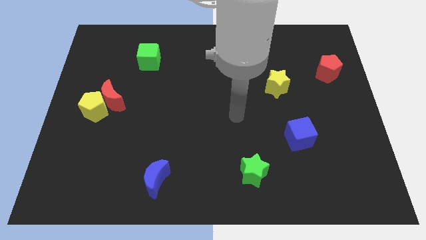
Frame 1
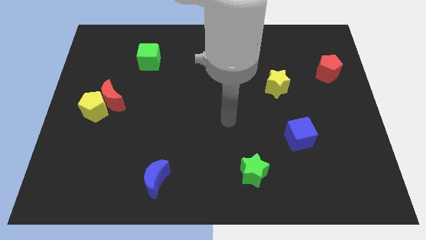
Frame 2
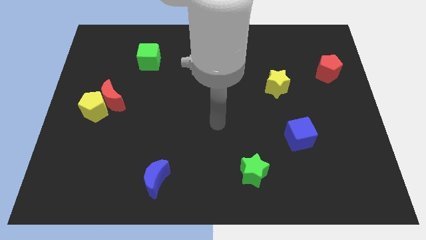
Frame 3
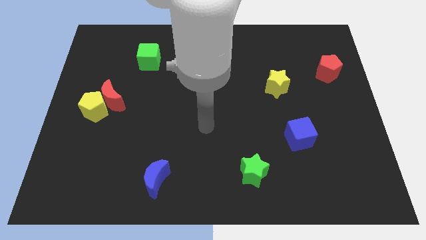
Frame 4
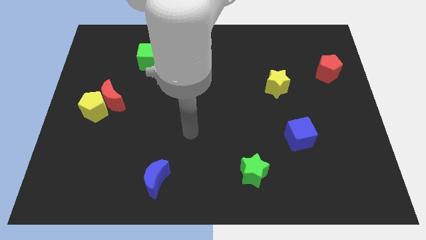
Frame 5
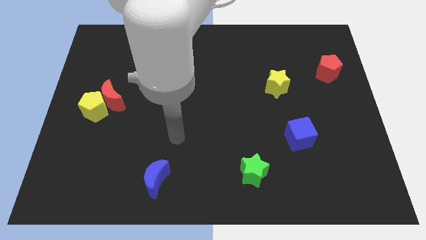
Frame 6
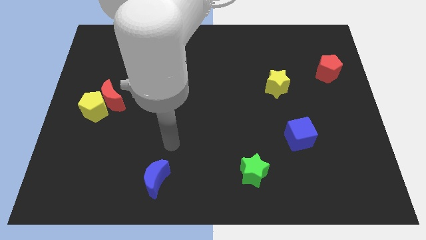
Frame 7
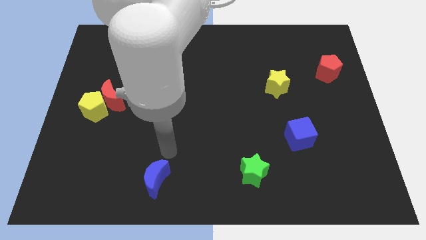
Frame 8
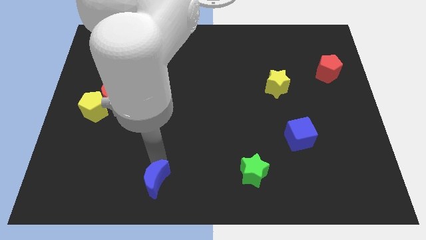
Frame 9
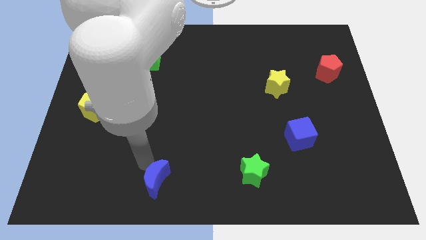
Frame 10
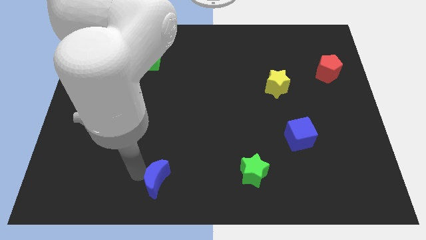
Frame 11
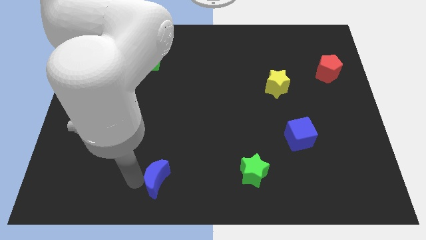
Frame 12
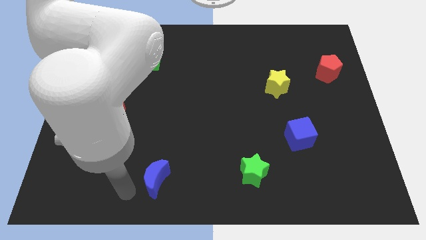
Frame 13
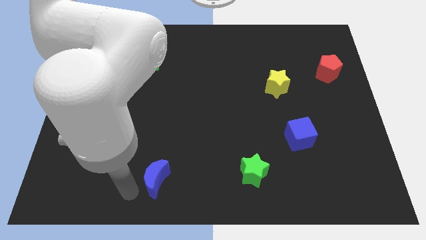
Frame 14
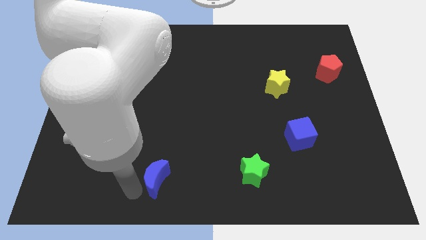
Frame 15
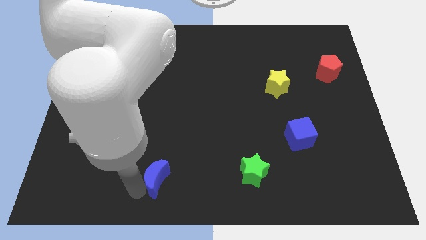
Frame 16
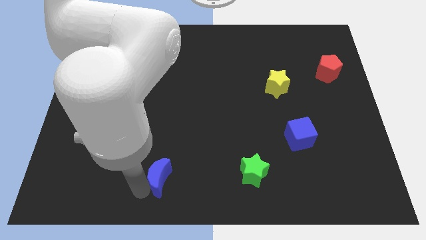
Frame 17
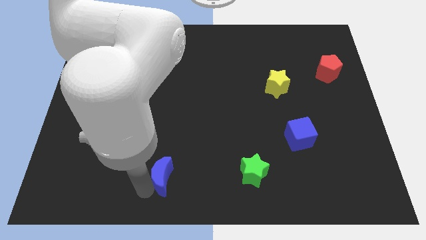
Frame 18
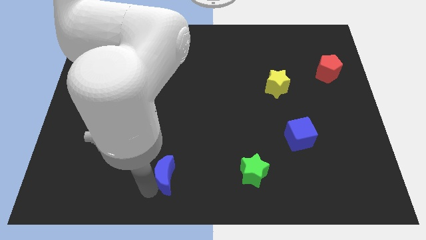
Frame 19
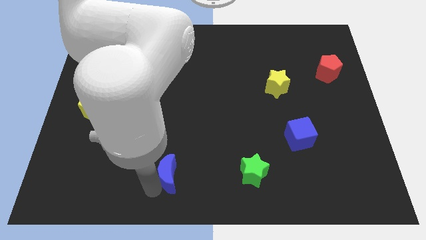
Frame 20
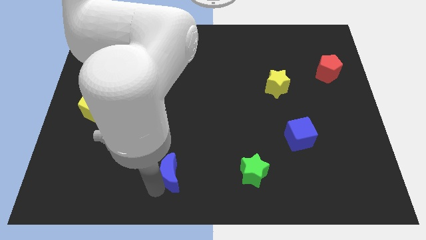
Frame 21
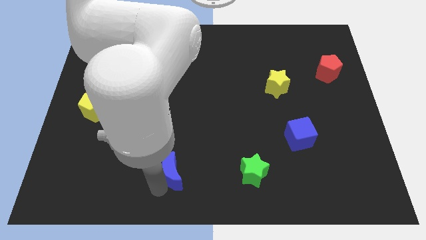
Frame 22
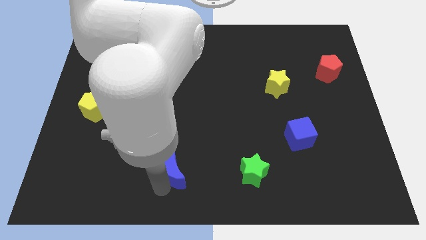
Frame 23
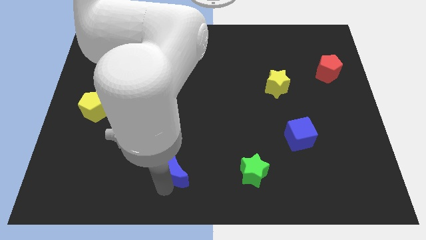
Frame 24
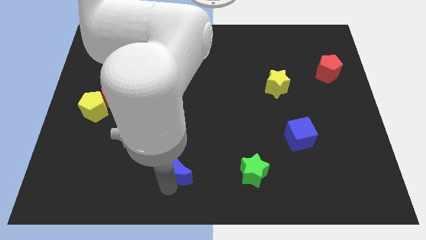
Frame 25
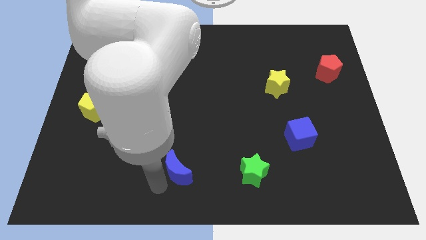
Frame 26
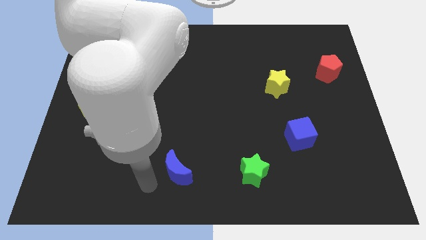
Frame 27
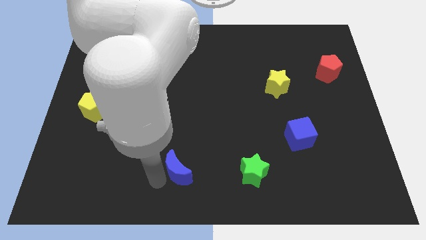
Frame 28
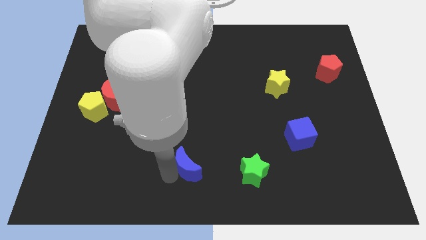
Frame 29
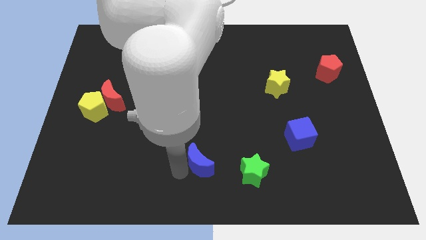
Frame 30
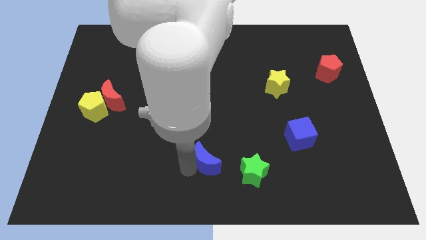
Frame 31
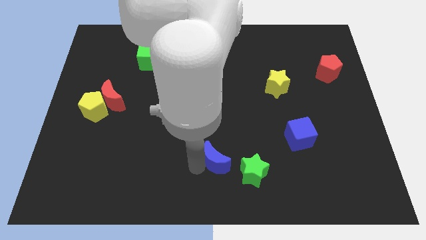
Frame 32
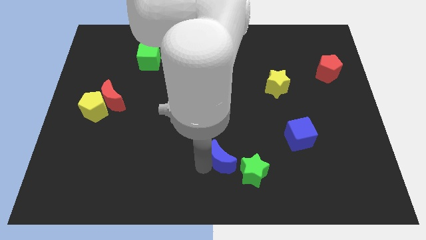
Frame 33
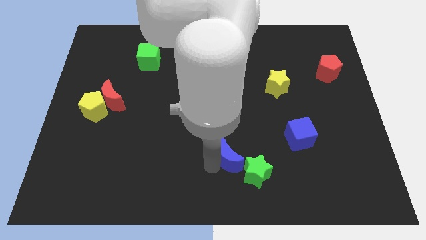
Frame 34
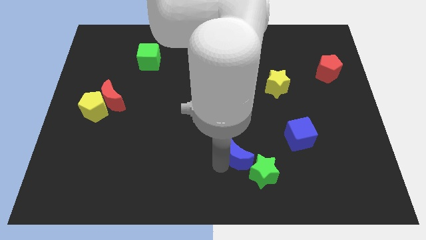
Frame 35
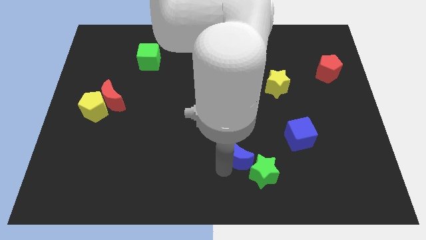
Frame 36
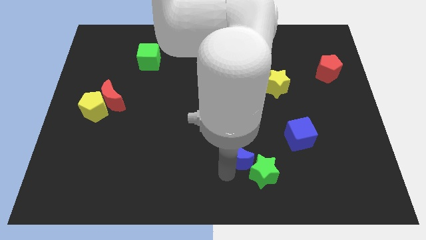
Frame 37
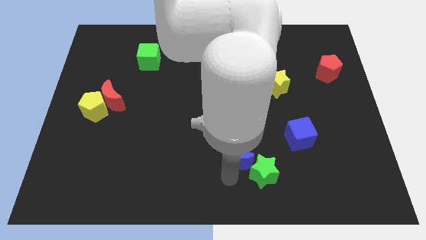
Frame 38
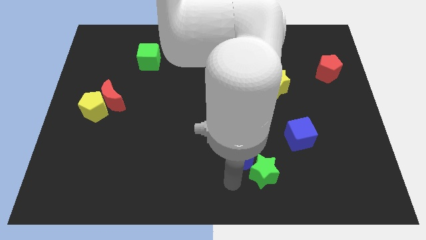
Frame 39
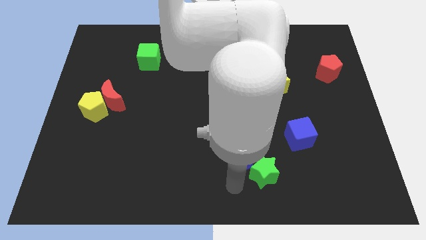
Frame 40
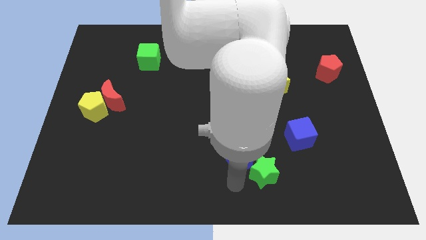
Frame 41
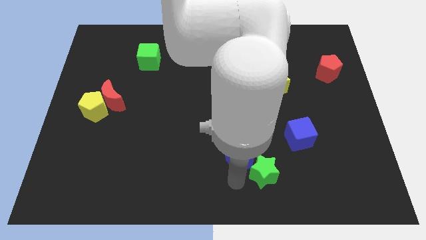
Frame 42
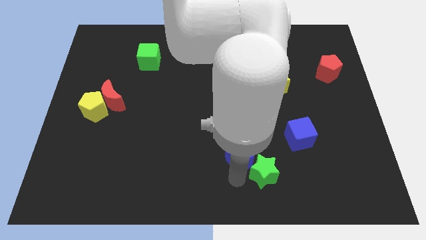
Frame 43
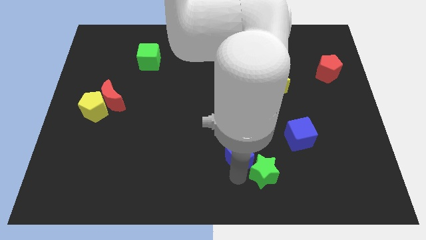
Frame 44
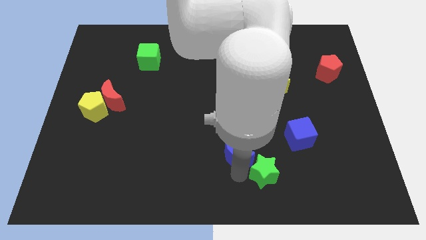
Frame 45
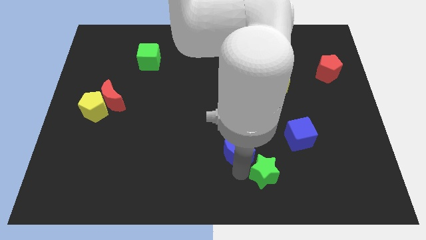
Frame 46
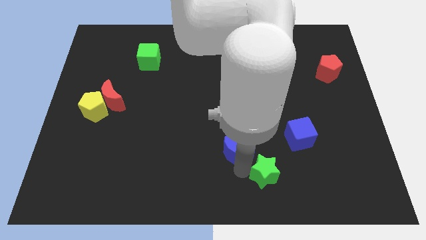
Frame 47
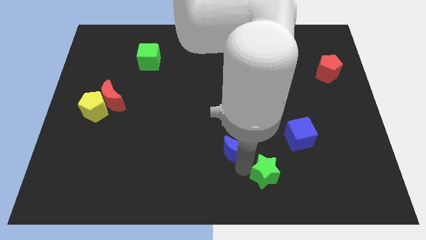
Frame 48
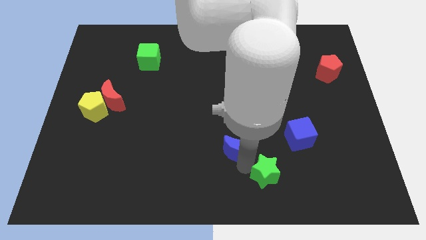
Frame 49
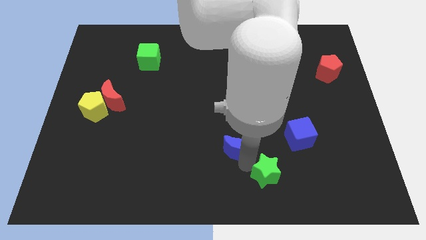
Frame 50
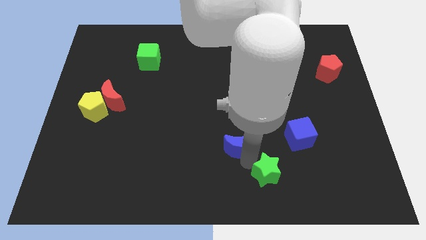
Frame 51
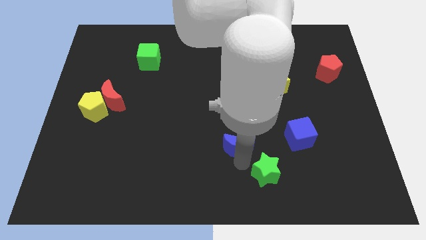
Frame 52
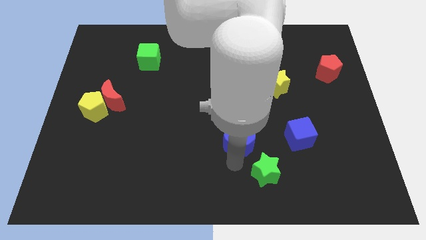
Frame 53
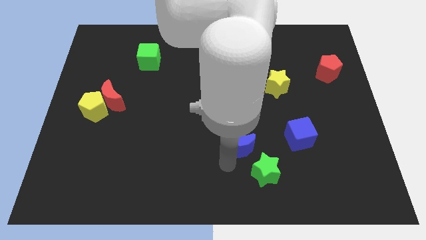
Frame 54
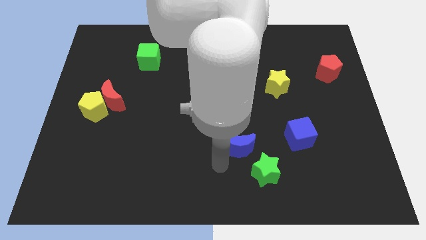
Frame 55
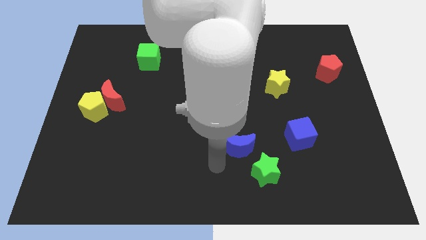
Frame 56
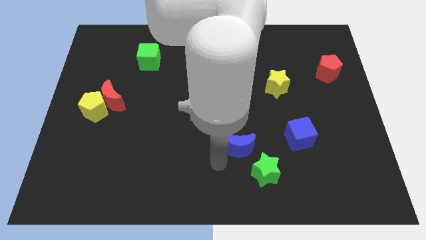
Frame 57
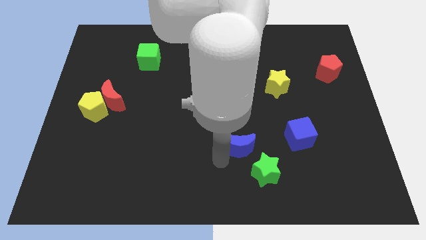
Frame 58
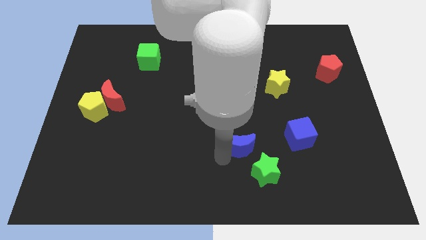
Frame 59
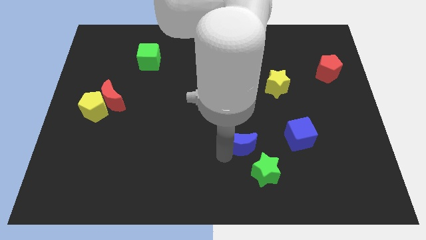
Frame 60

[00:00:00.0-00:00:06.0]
move the blue moon to the top of the green star

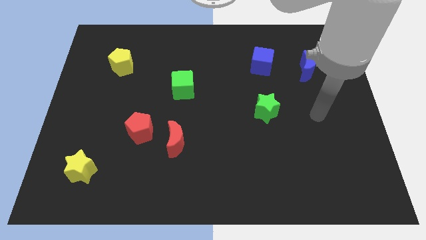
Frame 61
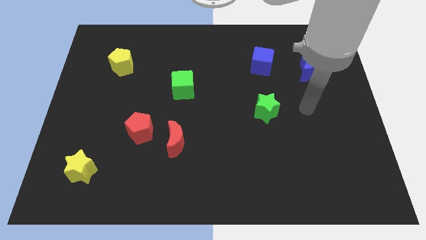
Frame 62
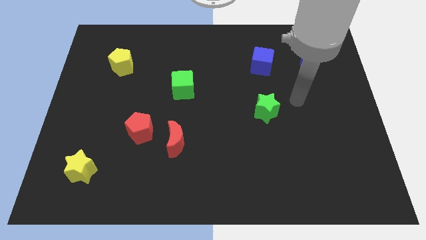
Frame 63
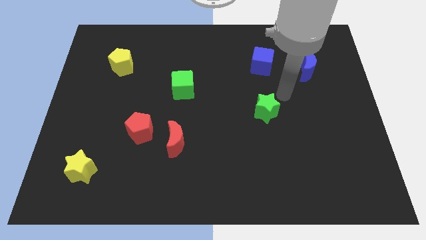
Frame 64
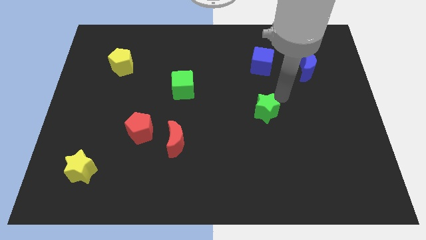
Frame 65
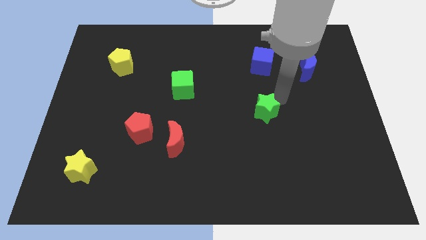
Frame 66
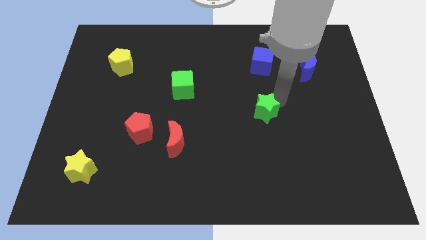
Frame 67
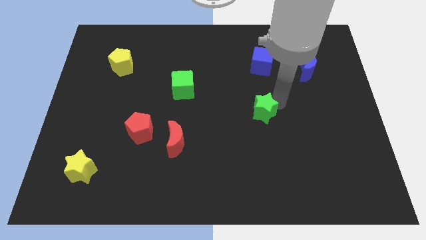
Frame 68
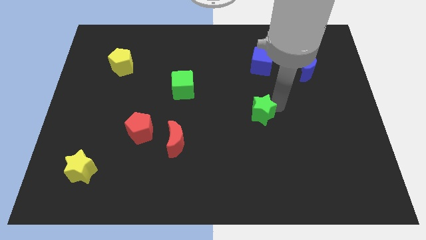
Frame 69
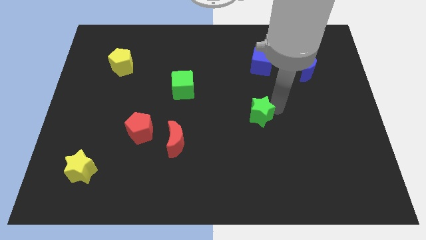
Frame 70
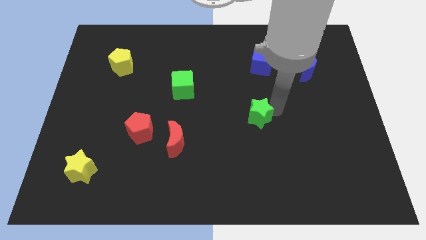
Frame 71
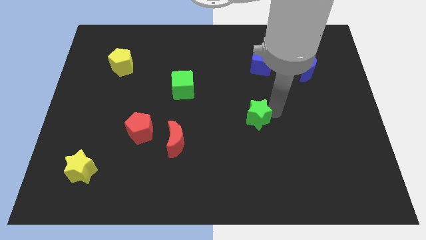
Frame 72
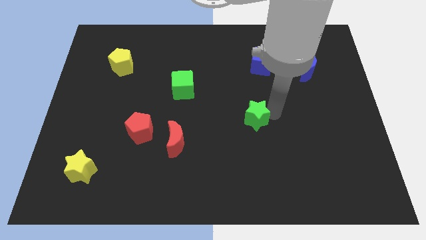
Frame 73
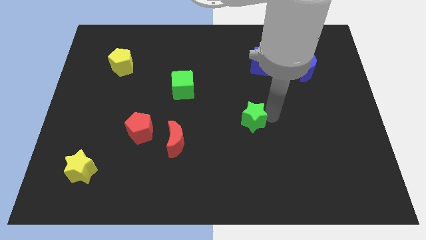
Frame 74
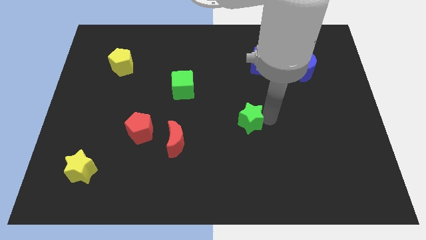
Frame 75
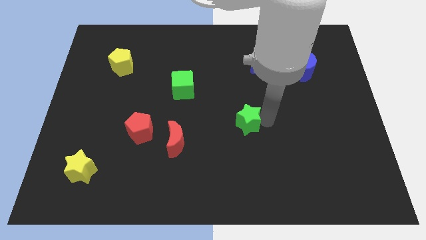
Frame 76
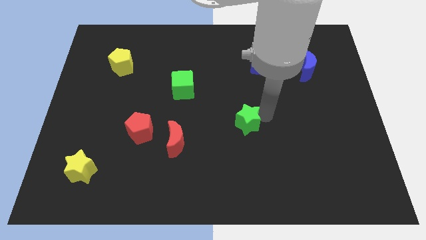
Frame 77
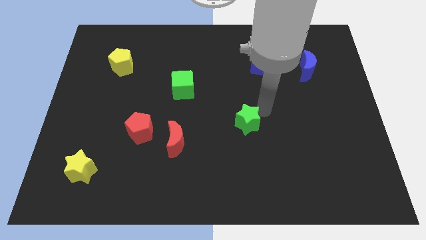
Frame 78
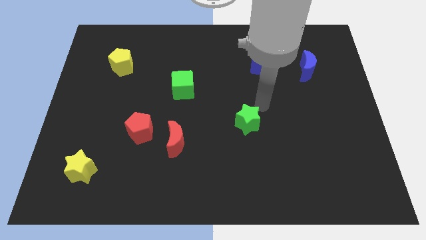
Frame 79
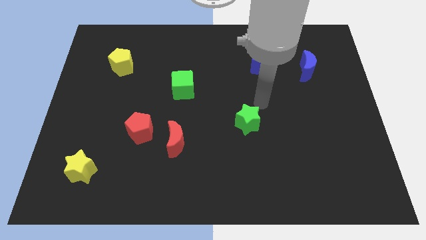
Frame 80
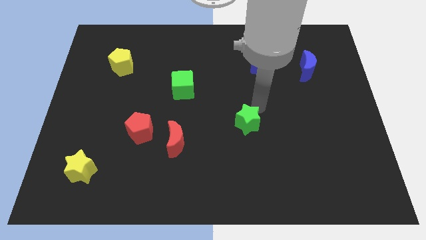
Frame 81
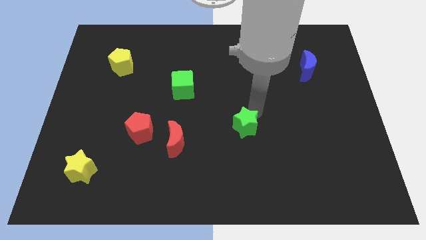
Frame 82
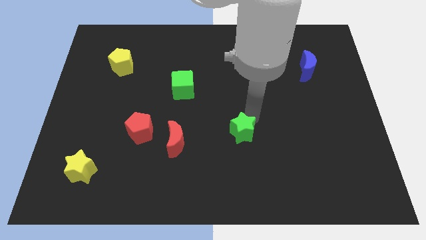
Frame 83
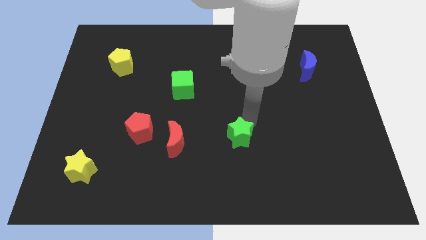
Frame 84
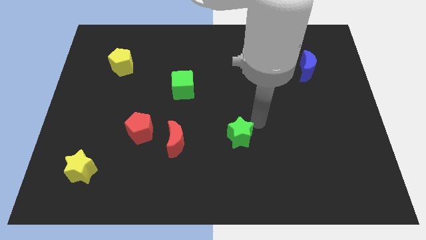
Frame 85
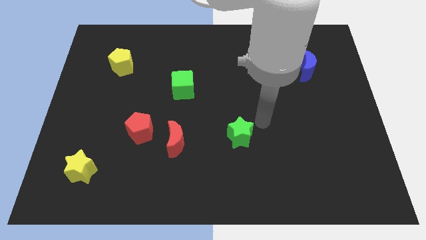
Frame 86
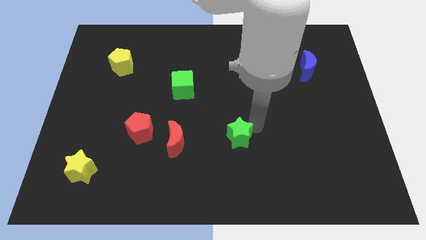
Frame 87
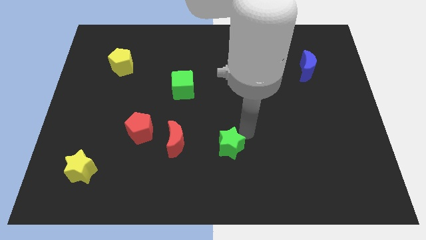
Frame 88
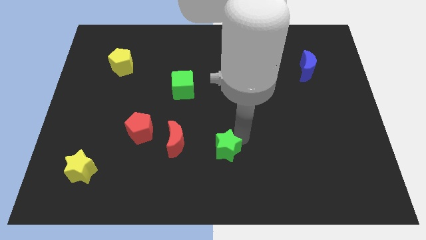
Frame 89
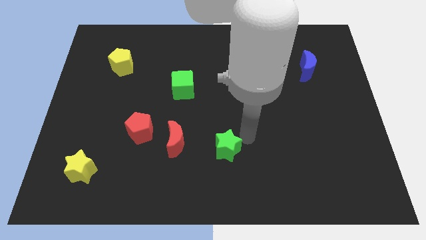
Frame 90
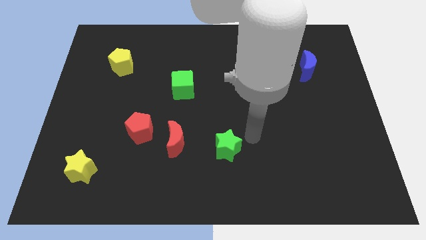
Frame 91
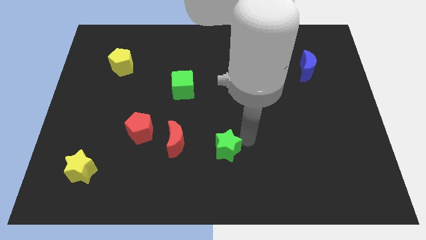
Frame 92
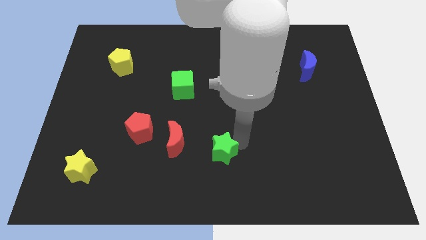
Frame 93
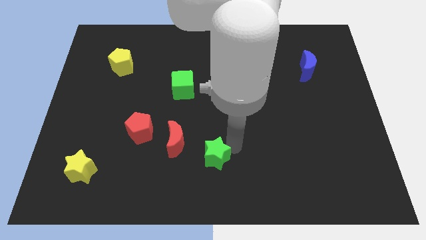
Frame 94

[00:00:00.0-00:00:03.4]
slide the green star to the bottom right side of the red moon
